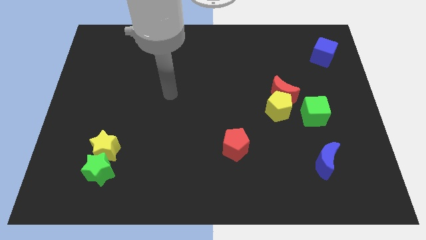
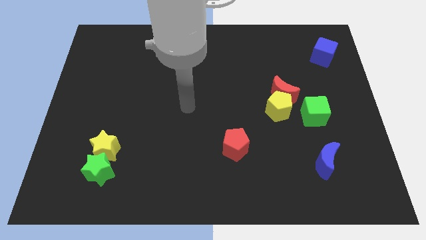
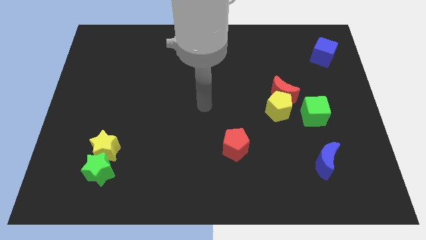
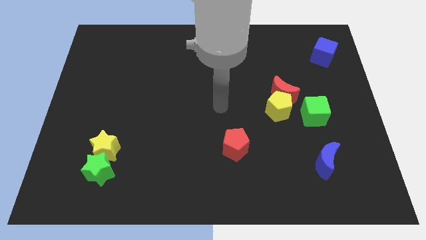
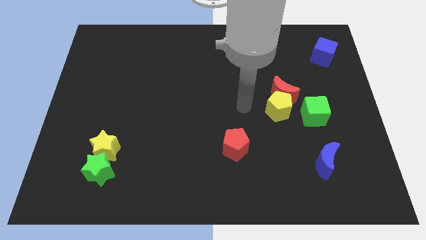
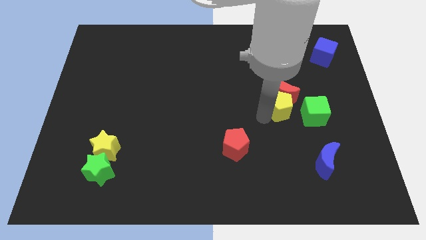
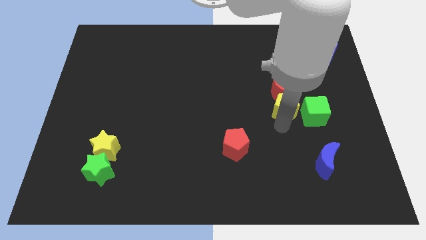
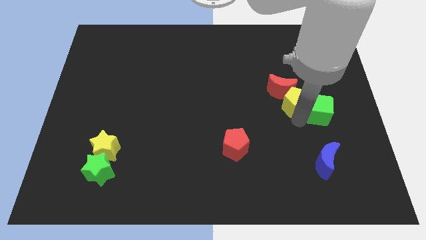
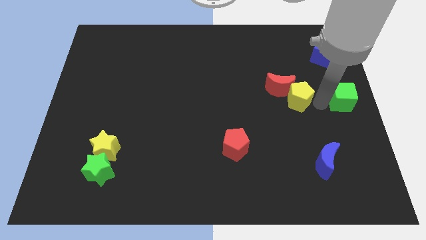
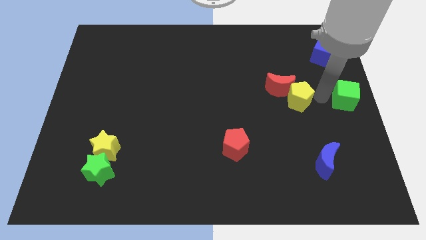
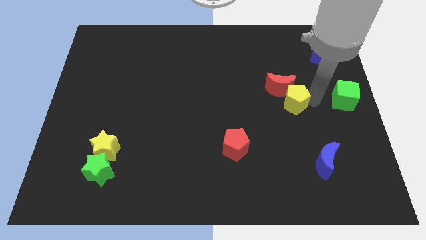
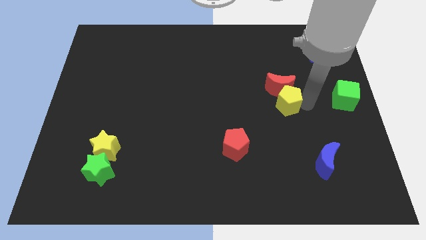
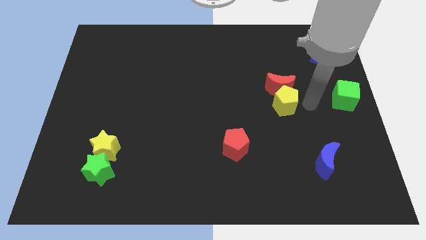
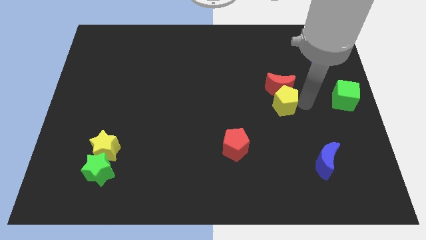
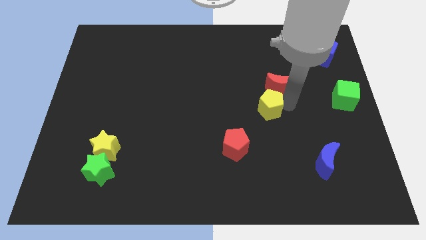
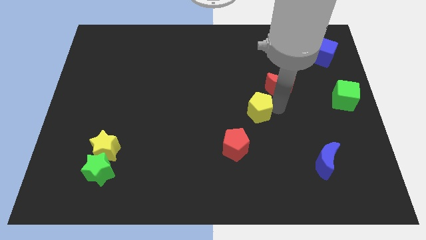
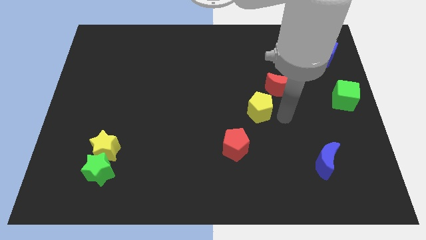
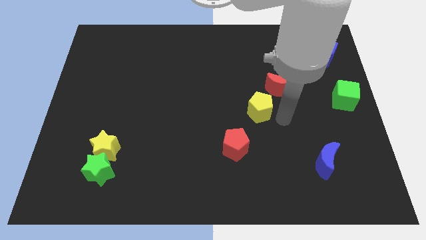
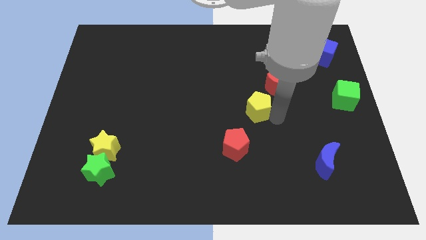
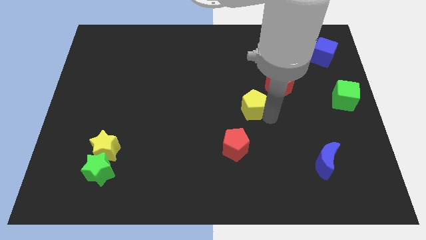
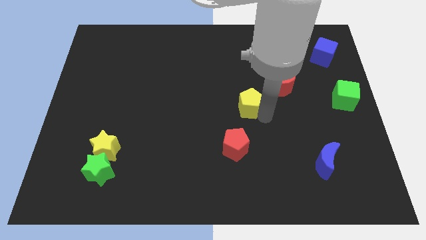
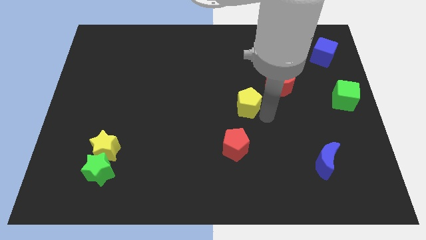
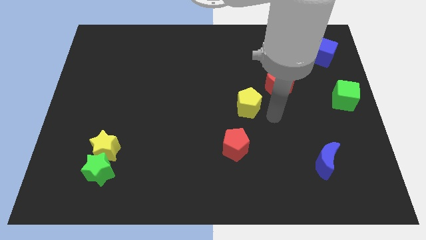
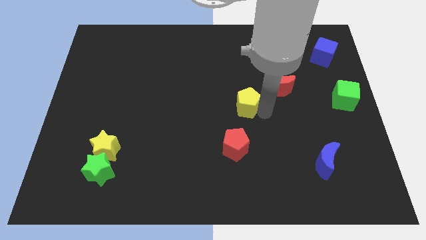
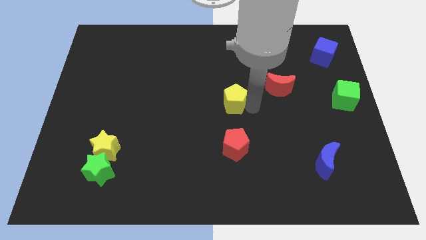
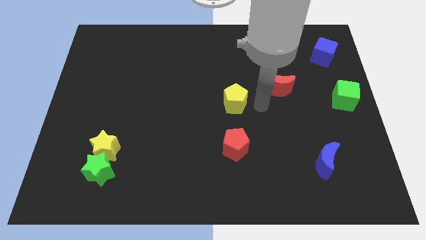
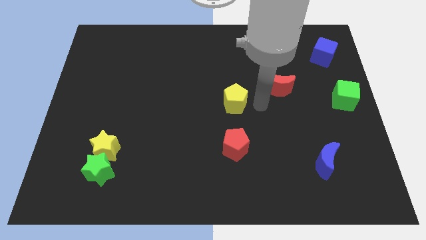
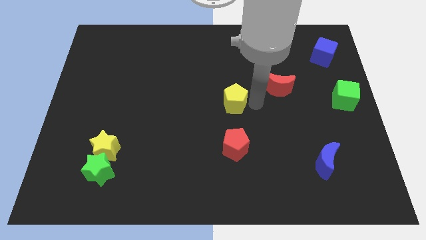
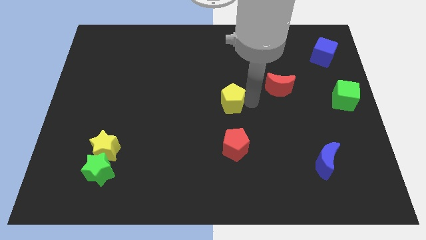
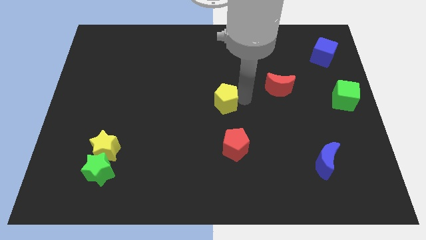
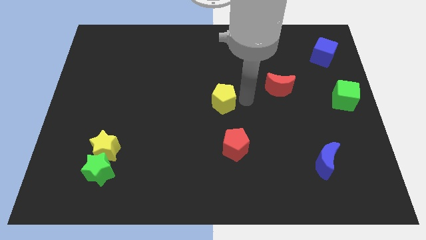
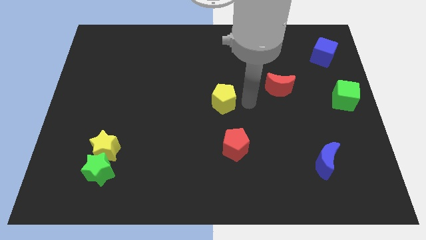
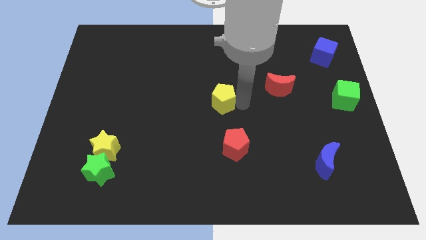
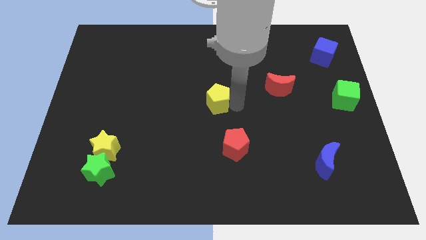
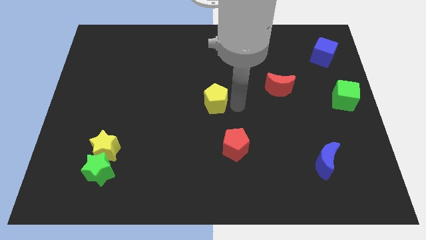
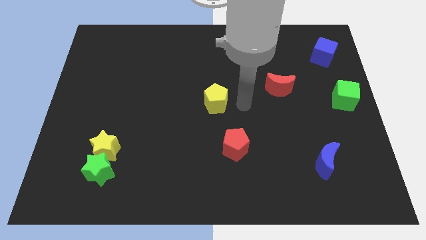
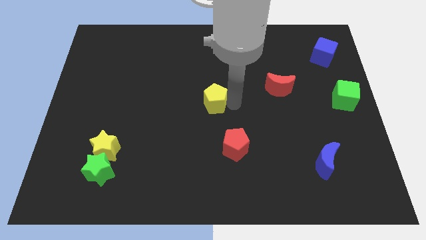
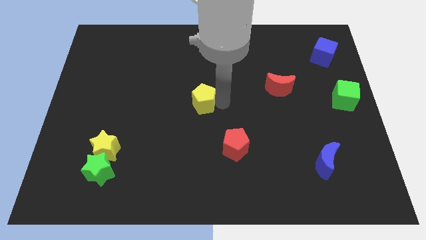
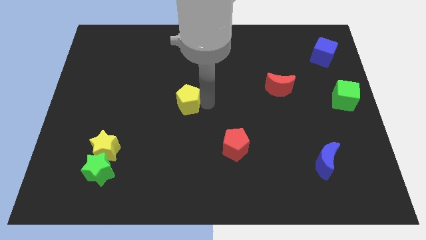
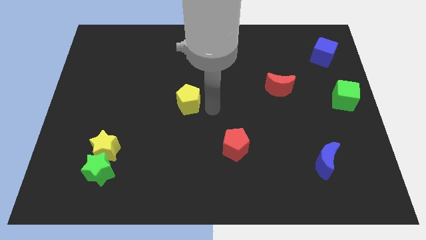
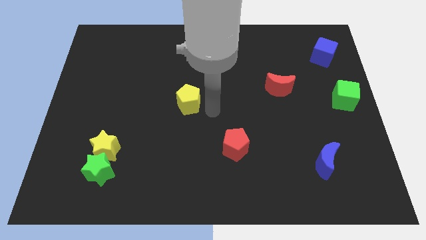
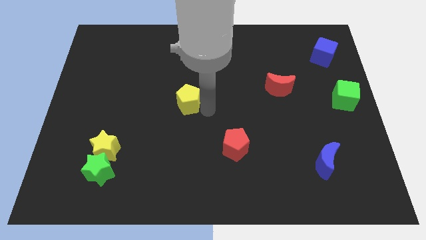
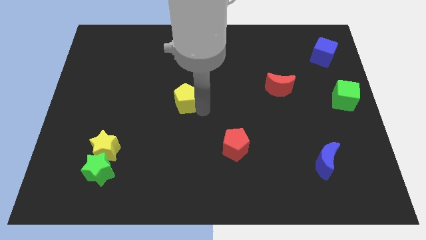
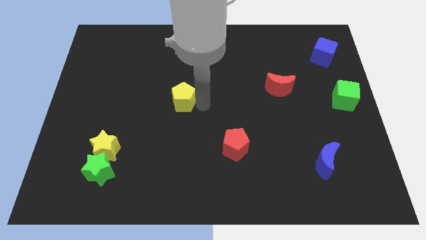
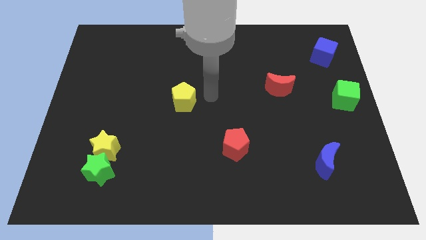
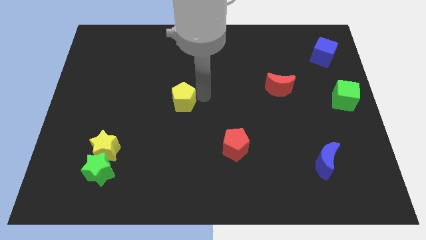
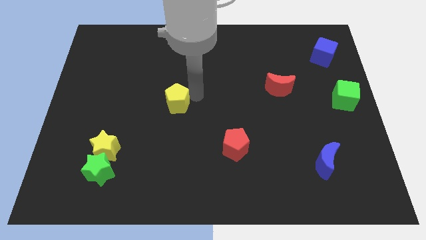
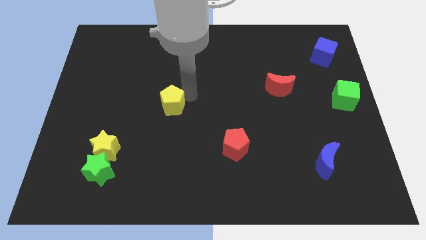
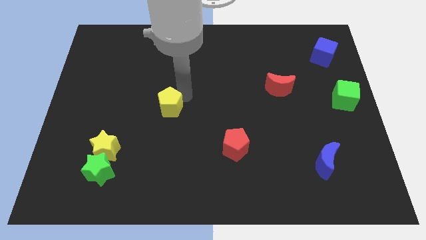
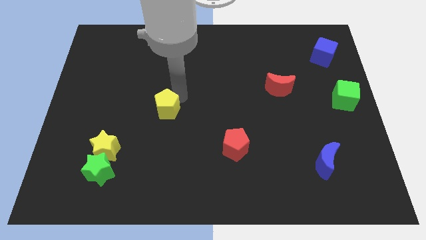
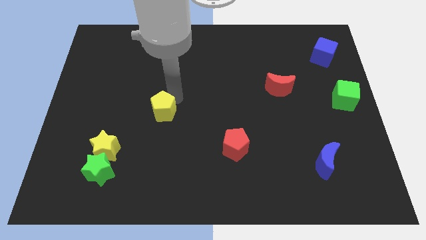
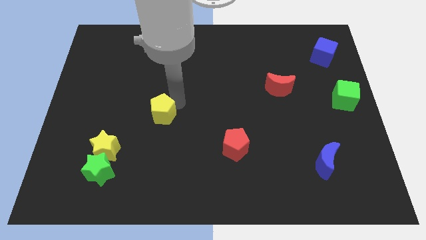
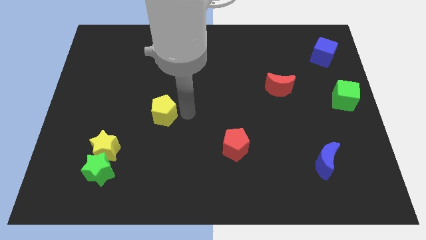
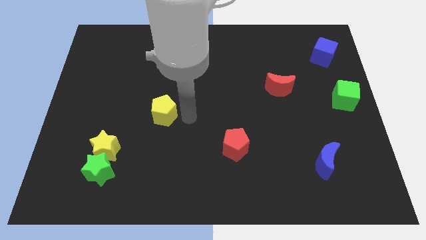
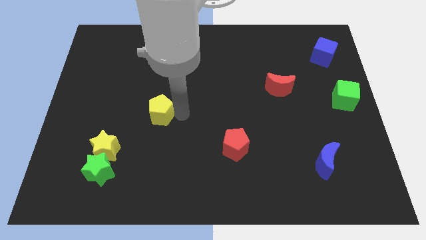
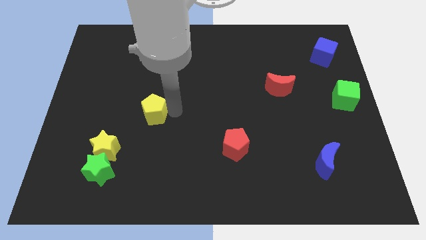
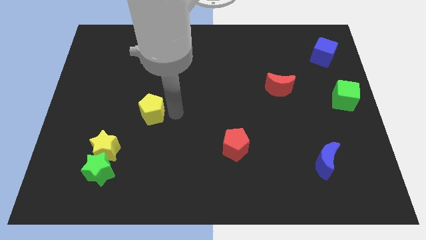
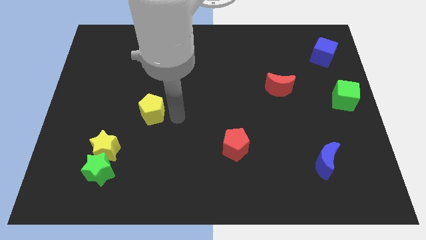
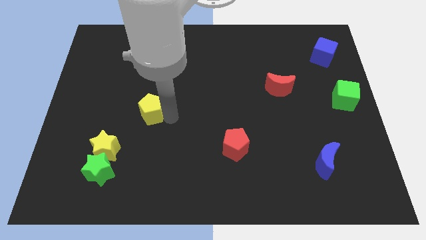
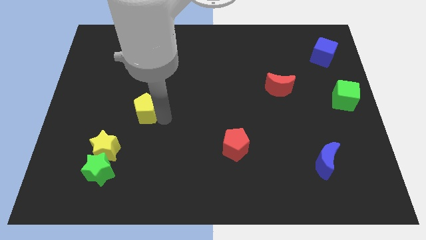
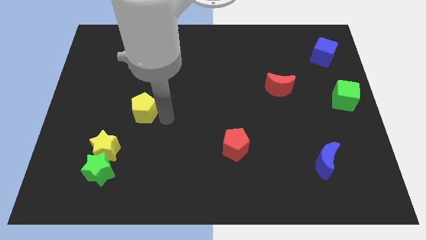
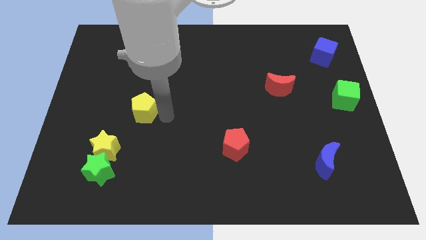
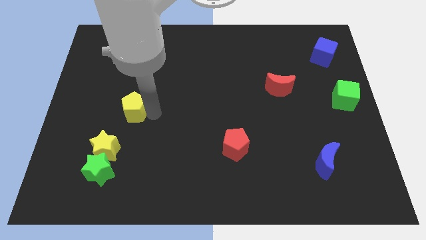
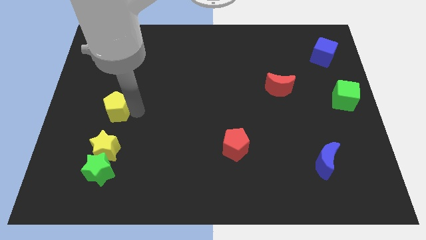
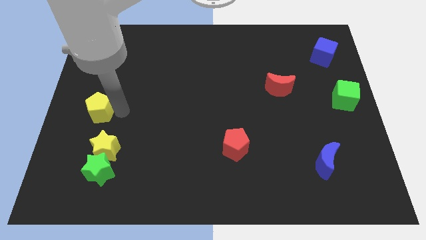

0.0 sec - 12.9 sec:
slide the yellow pentagon to the center left
